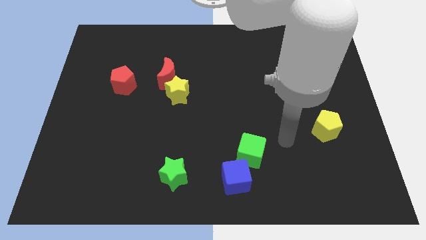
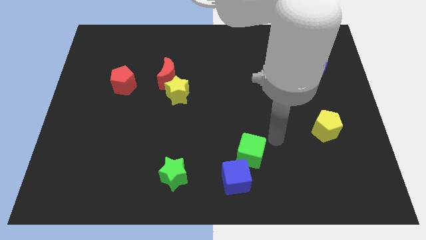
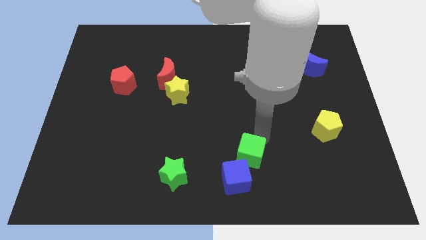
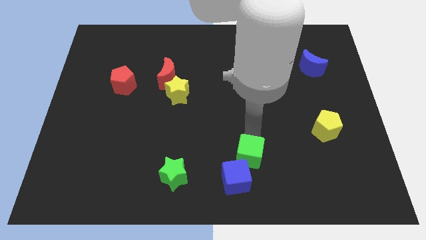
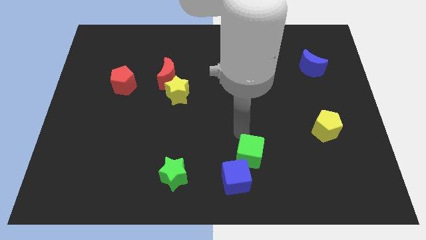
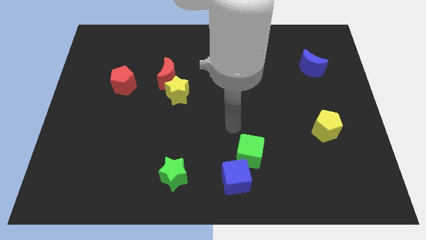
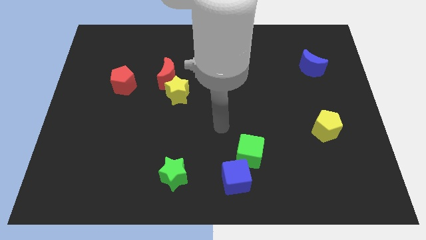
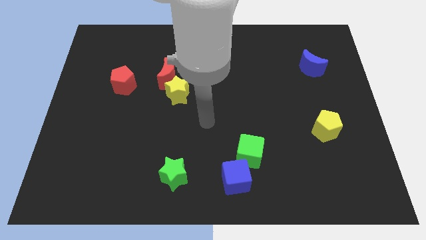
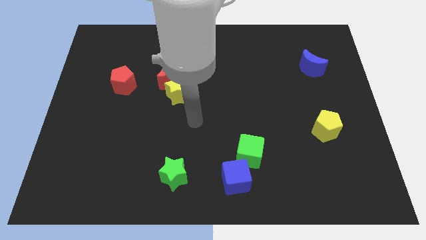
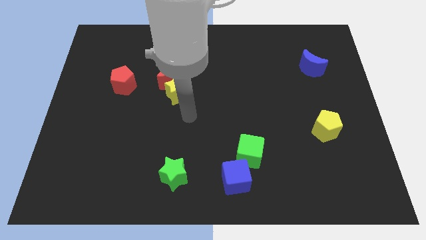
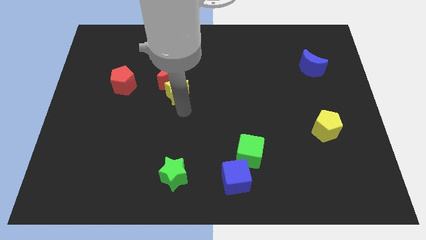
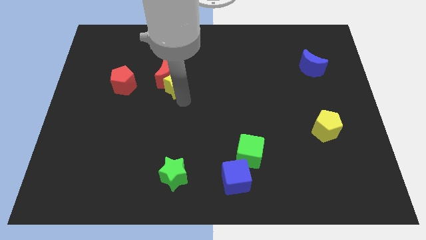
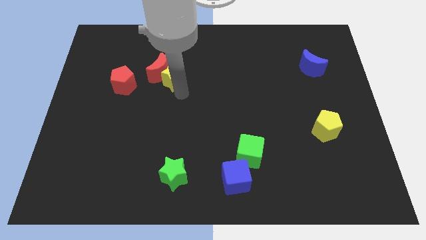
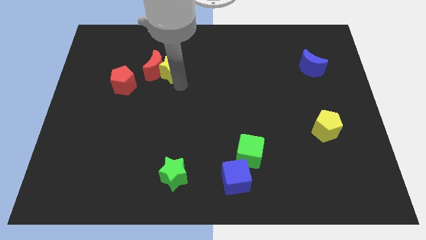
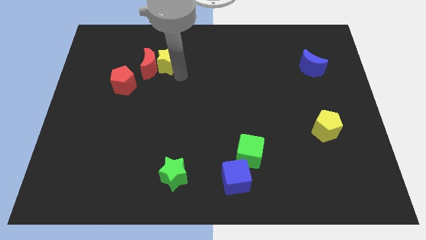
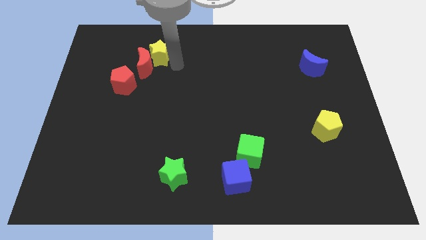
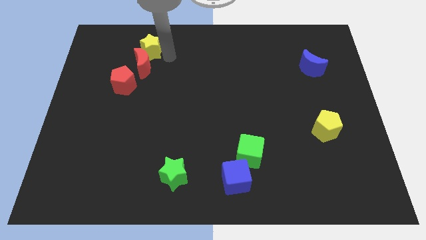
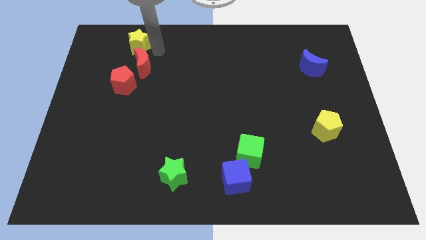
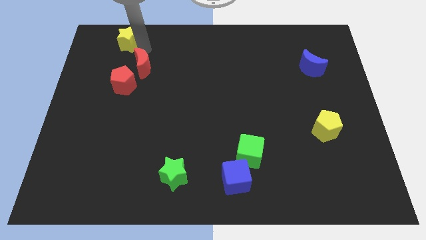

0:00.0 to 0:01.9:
separate the red moon from the yellow star

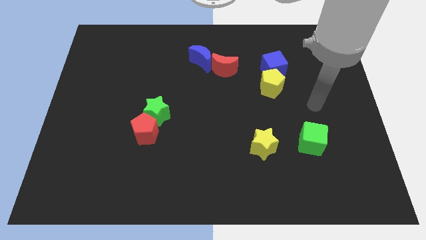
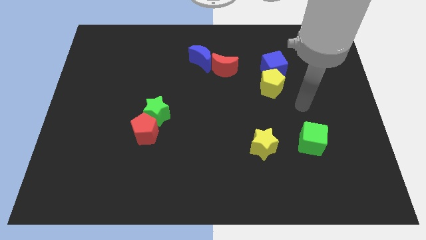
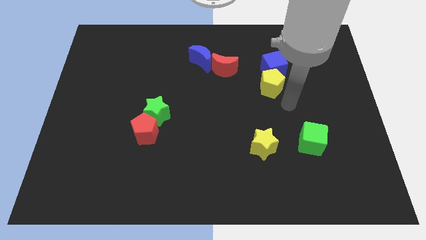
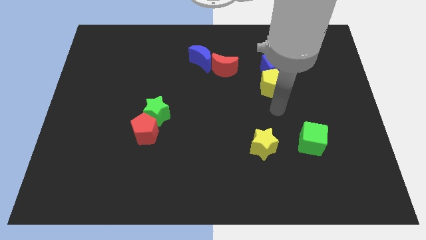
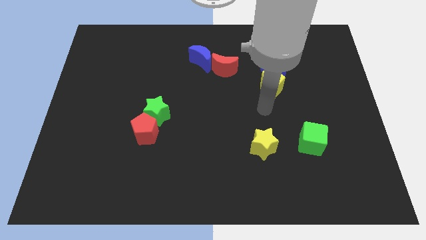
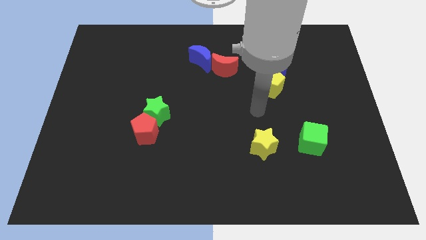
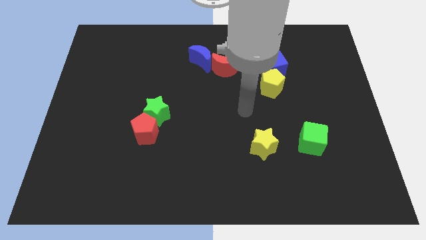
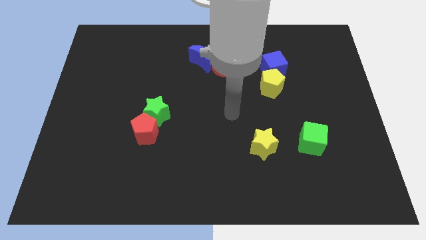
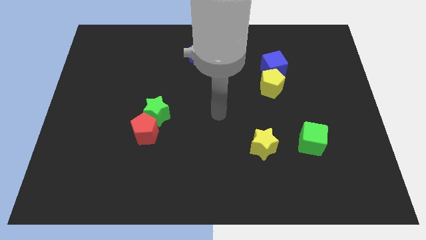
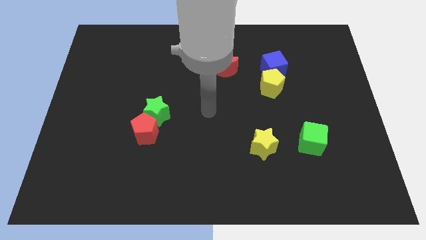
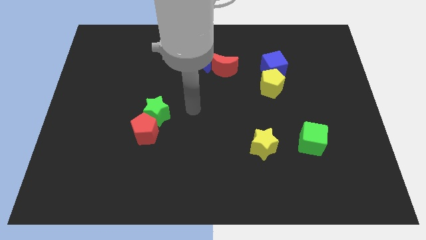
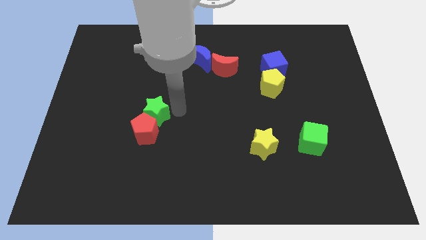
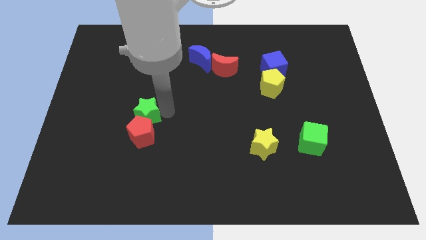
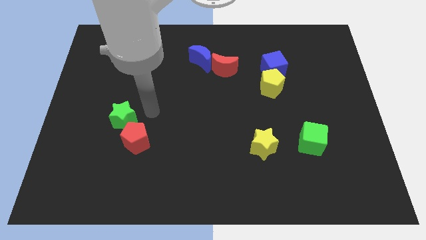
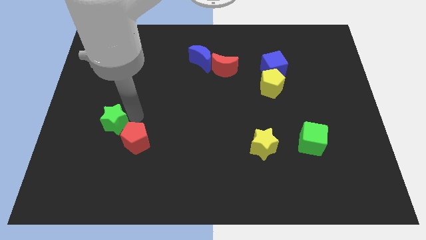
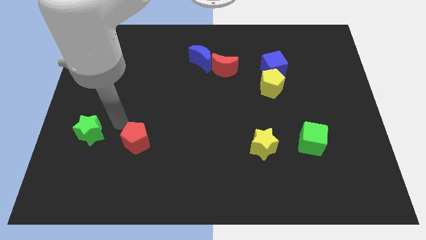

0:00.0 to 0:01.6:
separate the red pentagon from the green star

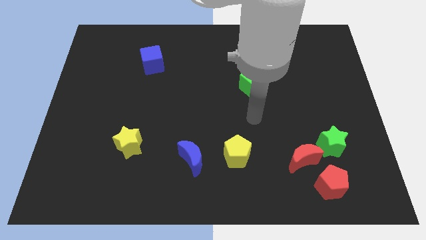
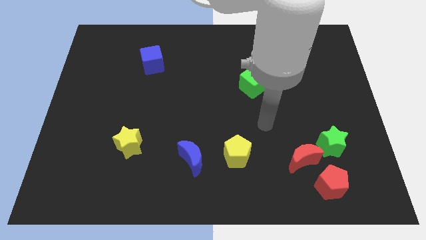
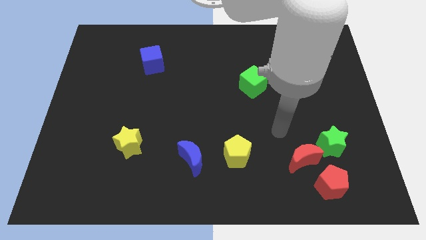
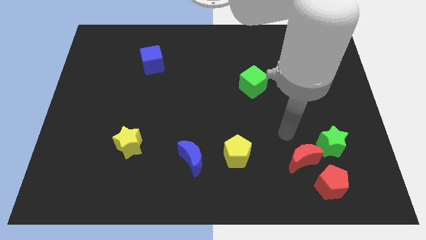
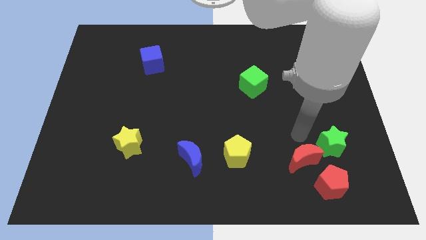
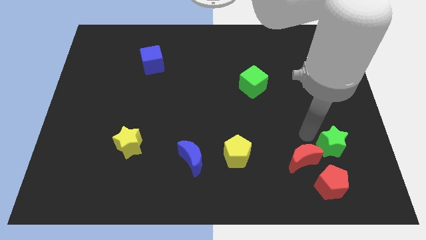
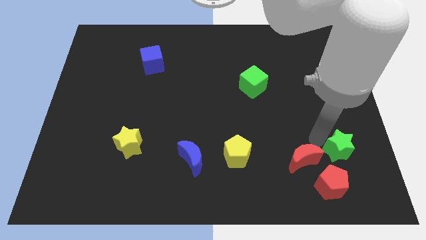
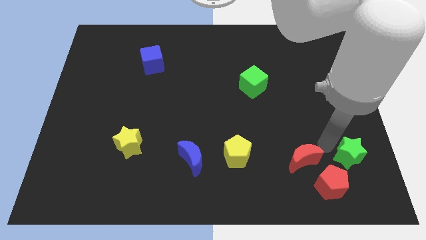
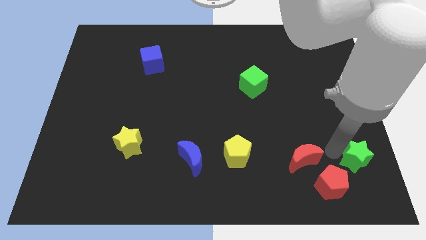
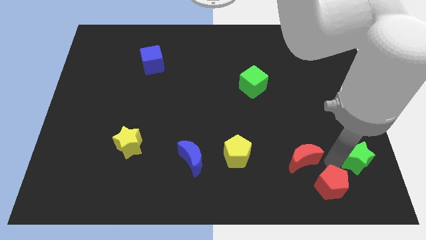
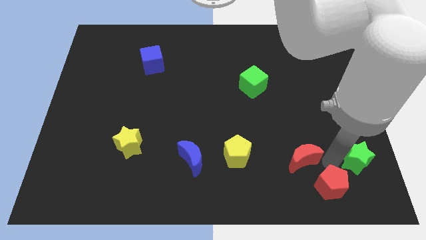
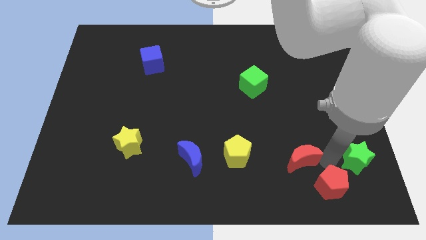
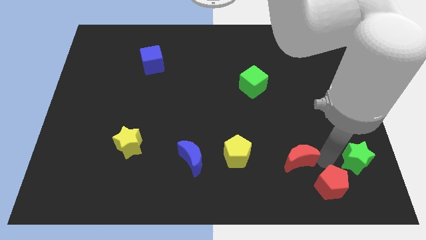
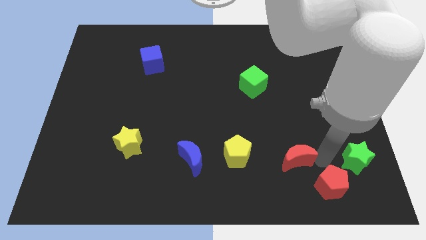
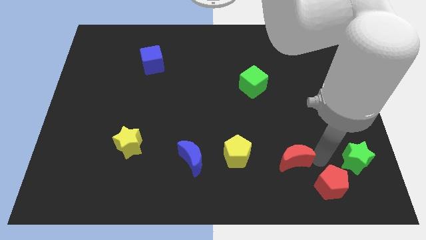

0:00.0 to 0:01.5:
pull the red moon apart from the red pentagon and green star

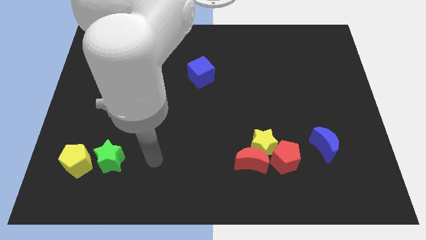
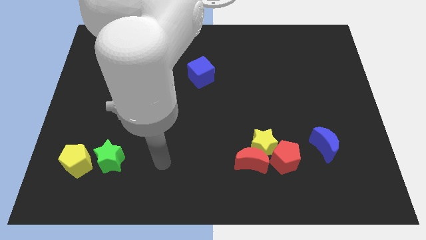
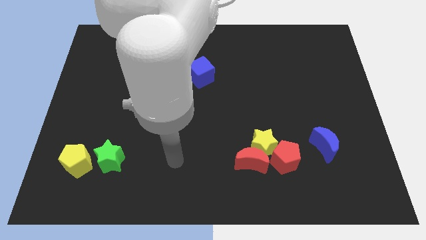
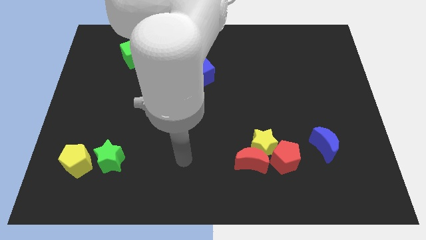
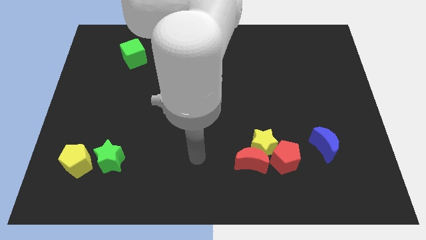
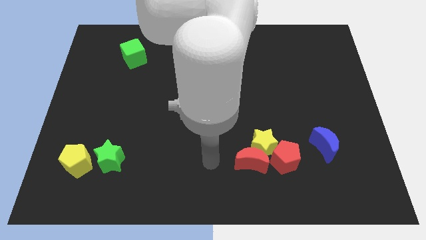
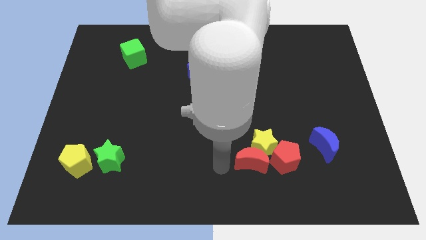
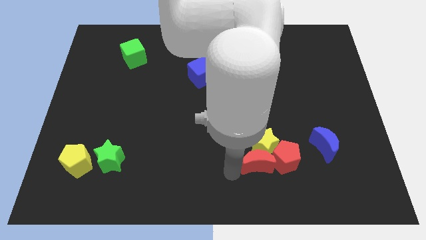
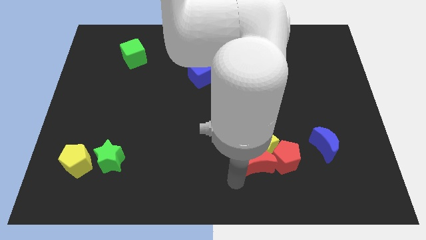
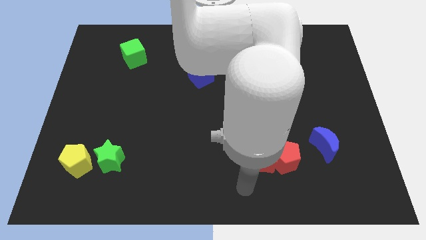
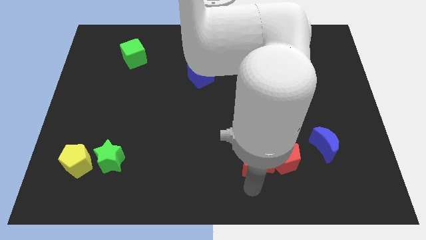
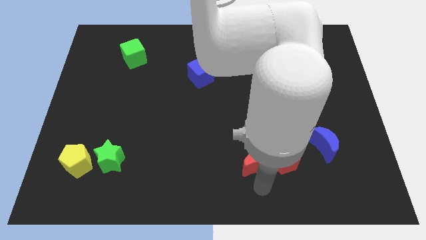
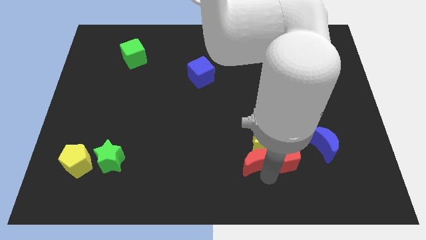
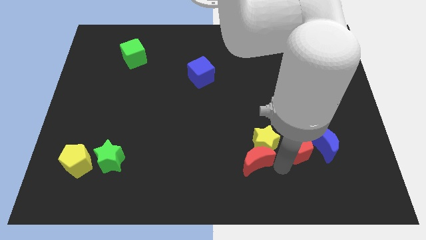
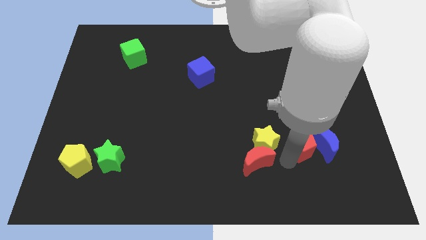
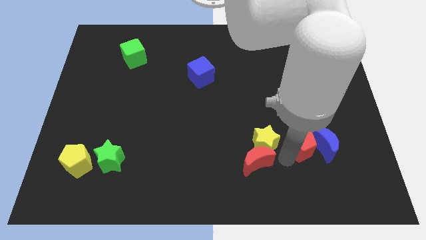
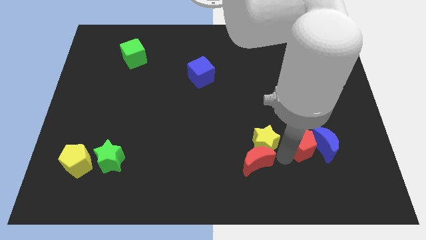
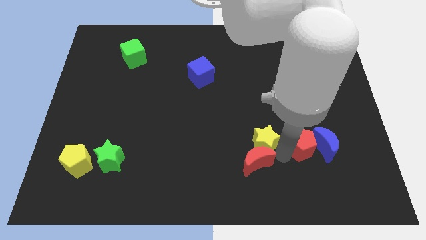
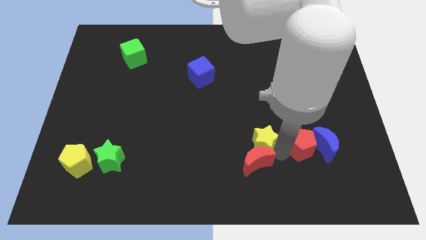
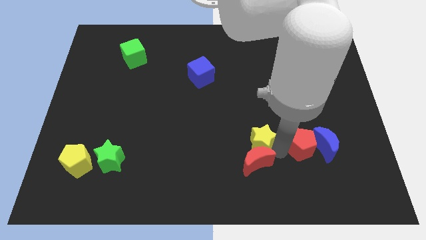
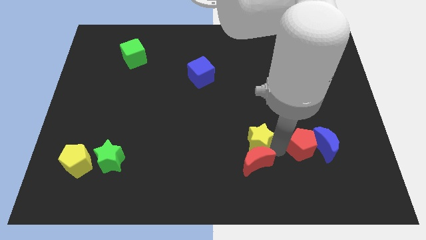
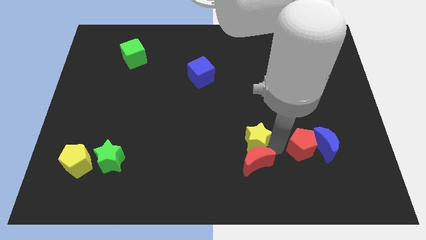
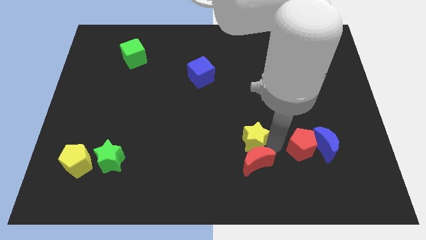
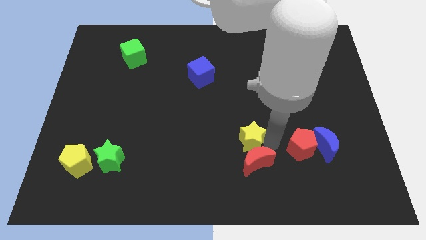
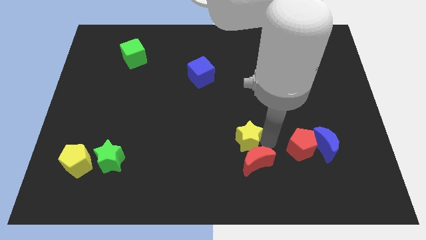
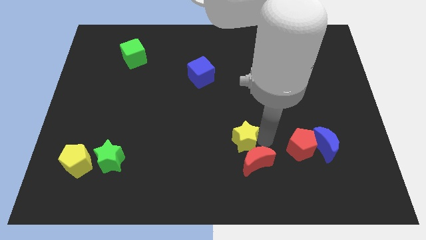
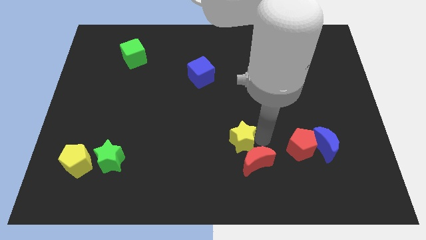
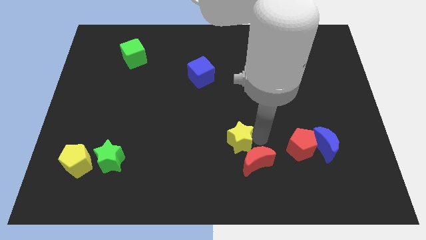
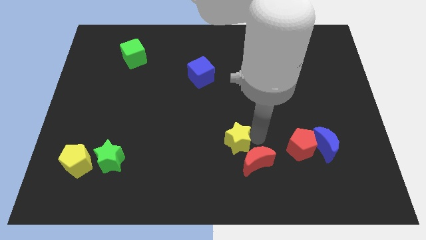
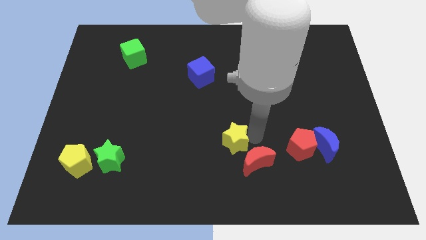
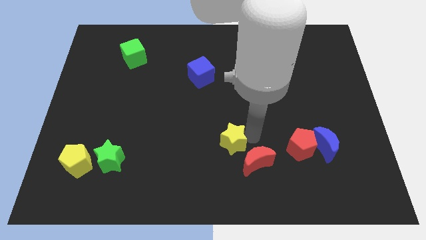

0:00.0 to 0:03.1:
separate the yellow star from the red moon and red pentagon

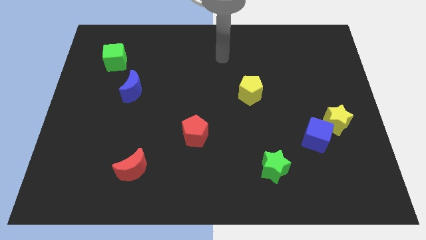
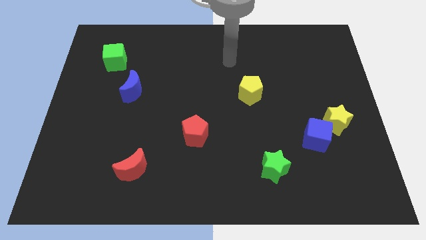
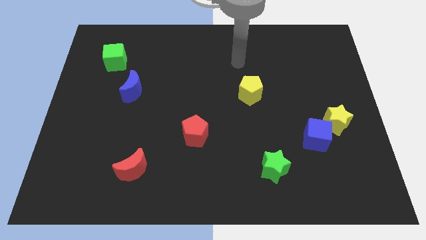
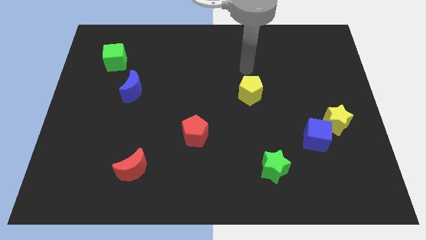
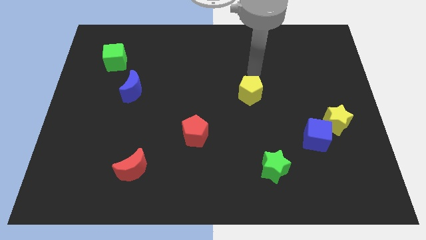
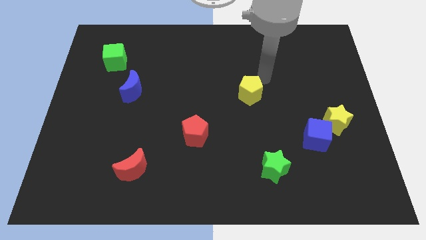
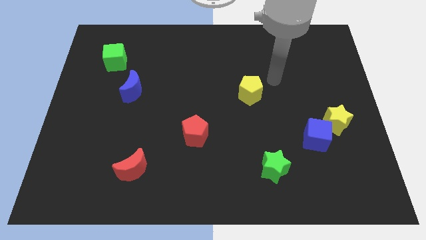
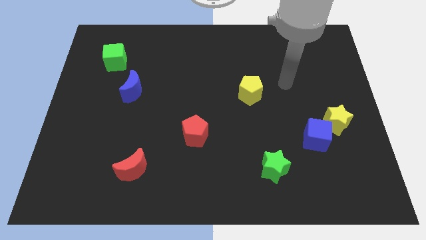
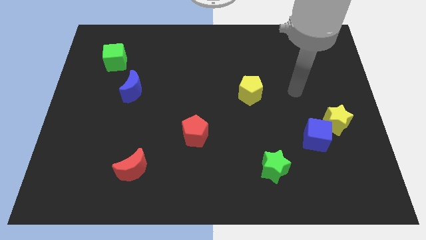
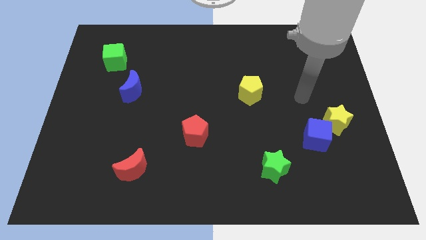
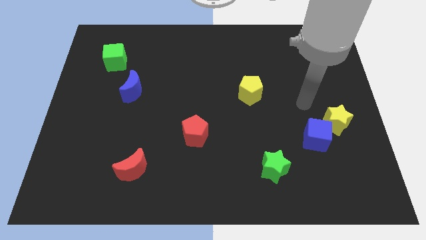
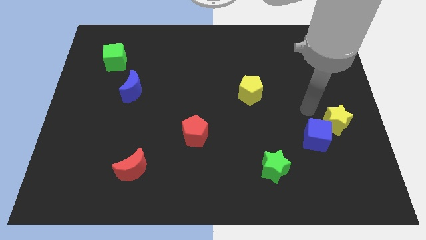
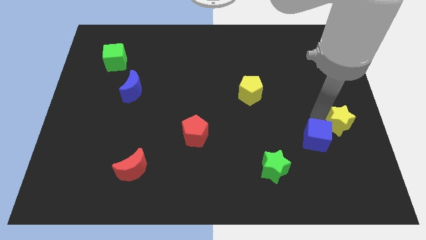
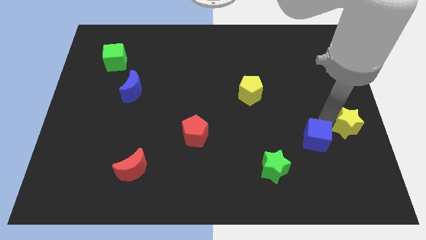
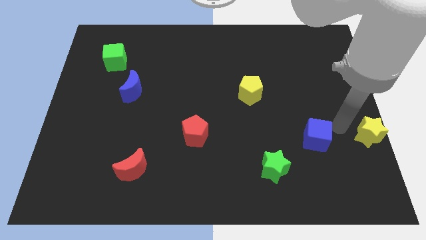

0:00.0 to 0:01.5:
move the blue cube away from the yellow star
